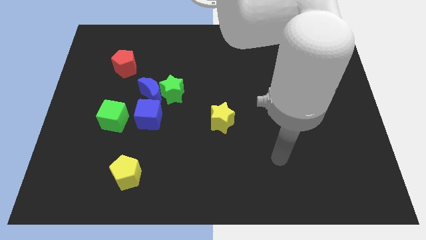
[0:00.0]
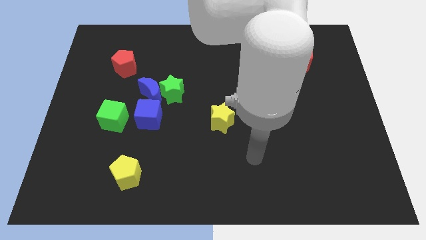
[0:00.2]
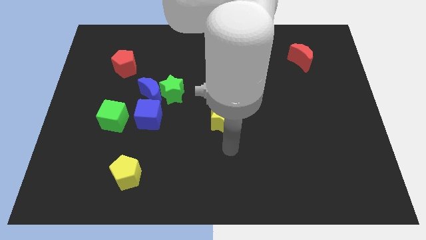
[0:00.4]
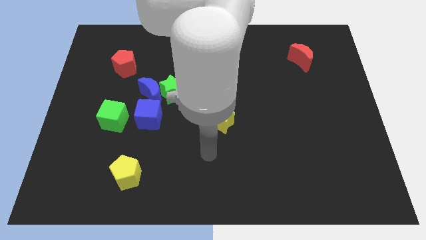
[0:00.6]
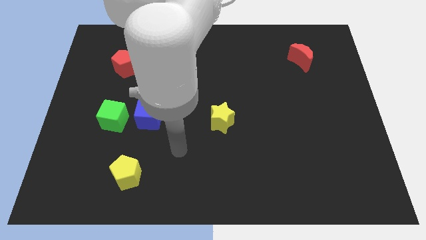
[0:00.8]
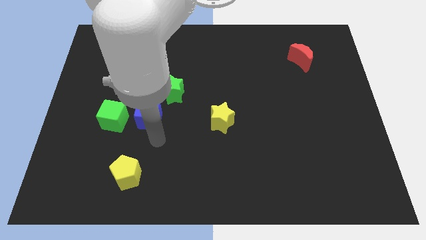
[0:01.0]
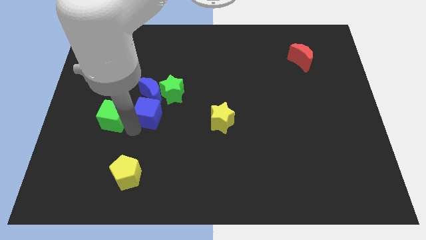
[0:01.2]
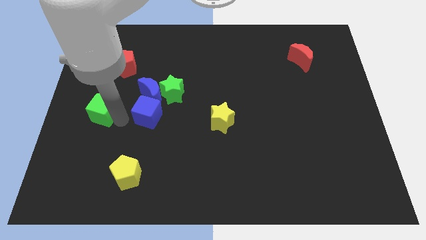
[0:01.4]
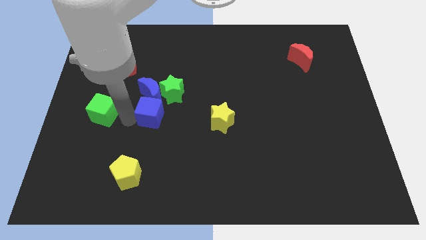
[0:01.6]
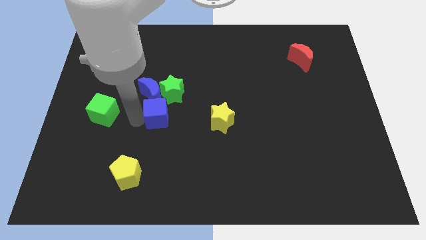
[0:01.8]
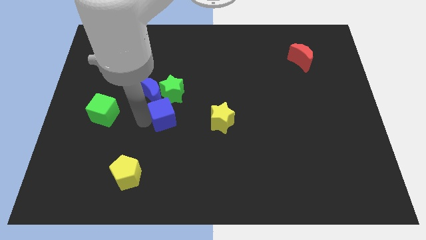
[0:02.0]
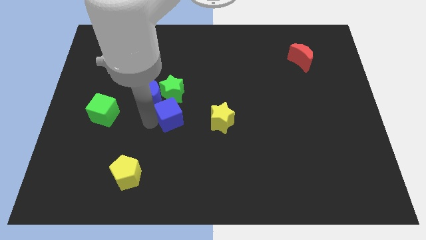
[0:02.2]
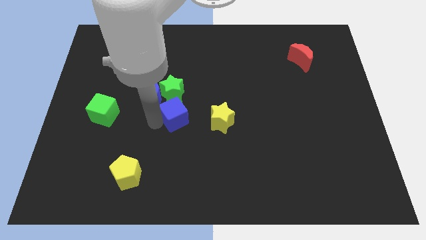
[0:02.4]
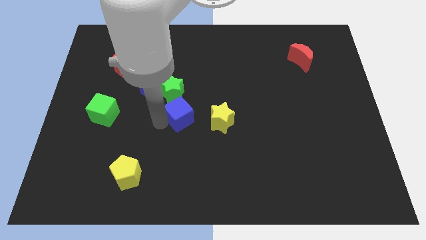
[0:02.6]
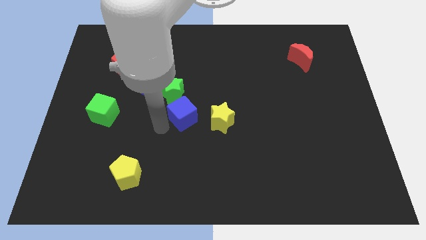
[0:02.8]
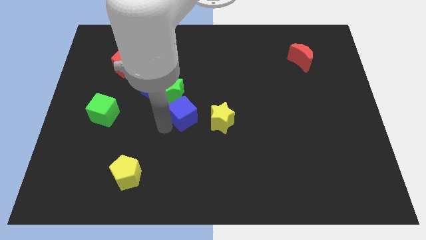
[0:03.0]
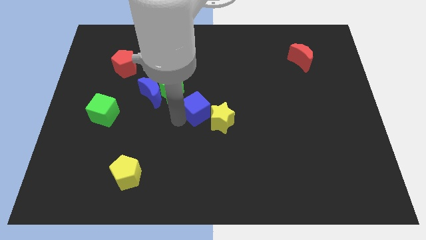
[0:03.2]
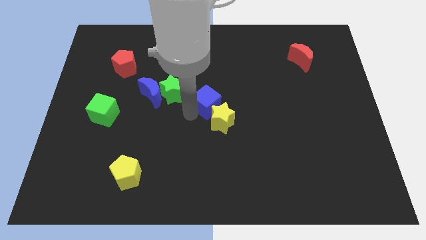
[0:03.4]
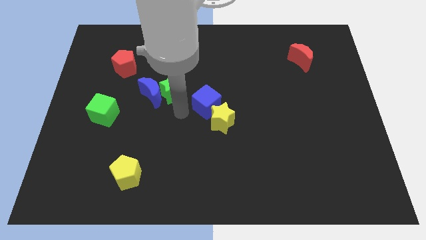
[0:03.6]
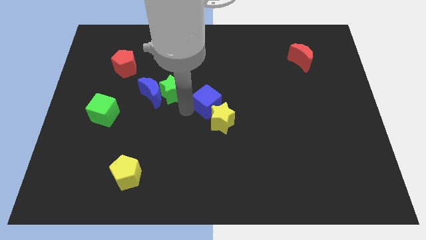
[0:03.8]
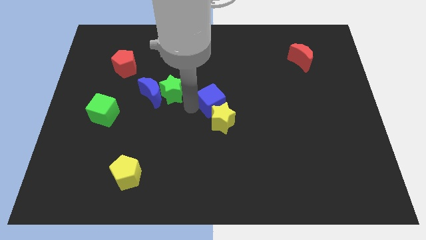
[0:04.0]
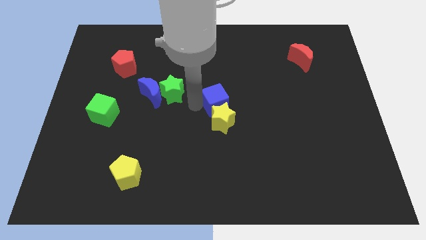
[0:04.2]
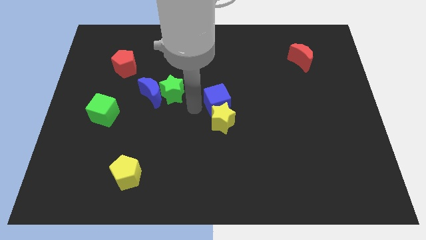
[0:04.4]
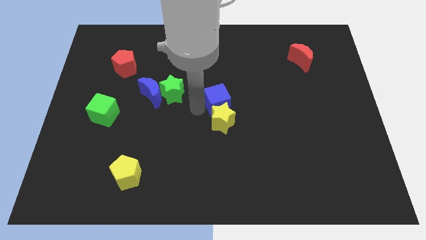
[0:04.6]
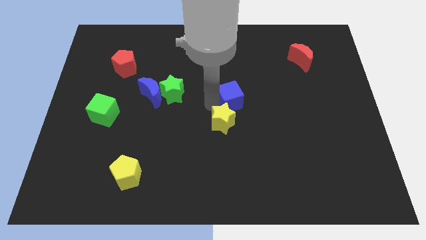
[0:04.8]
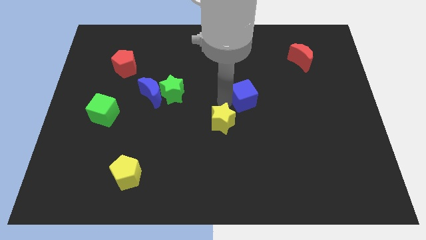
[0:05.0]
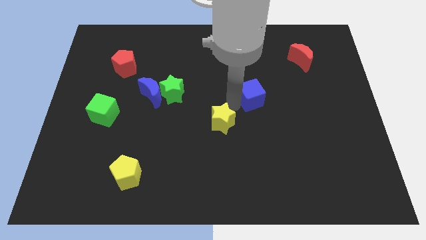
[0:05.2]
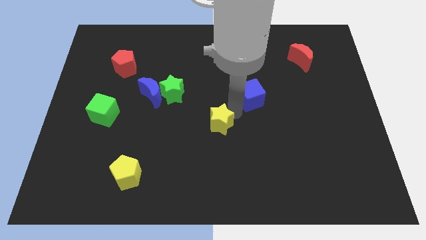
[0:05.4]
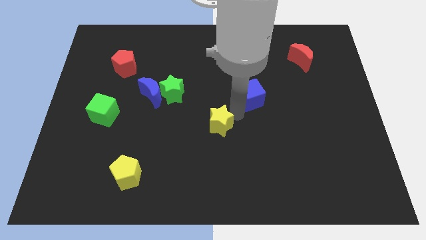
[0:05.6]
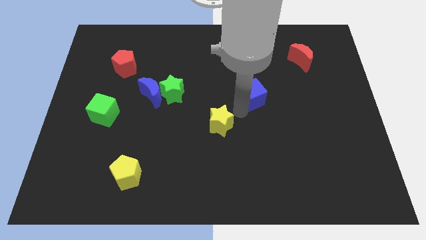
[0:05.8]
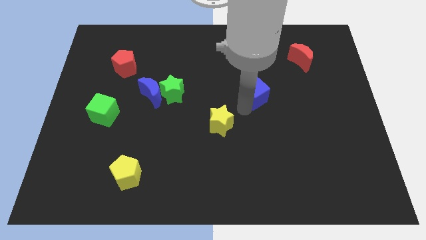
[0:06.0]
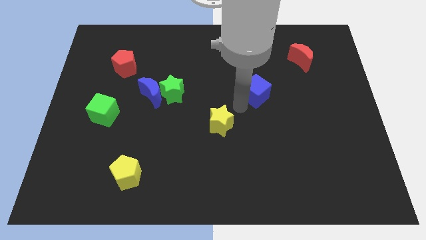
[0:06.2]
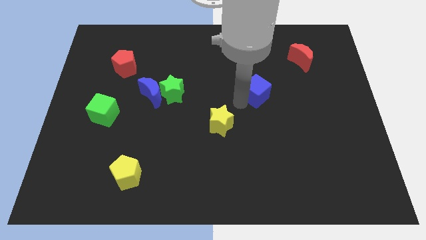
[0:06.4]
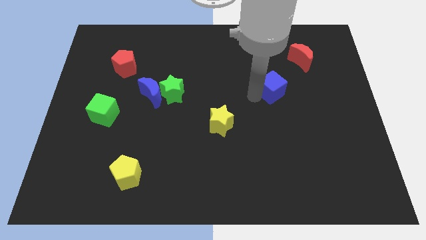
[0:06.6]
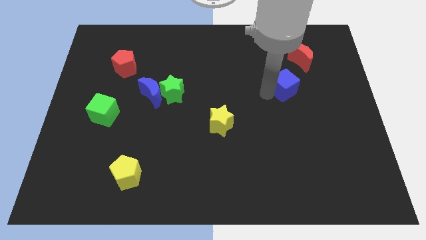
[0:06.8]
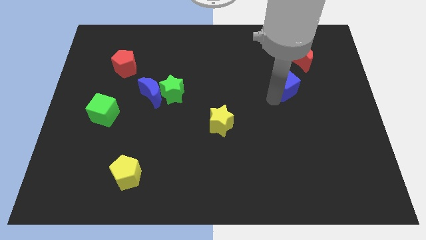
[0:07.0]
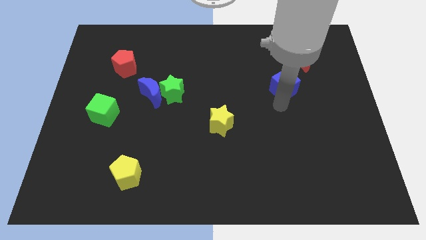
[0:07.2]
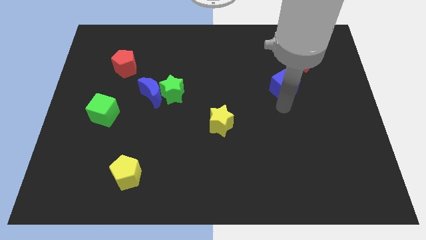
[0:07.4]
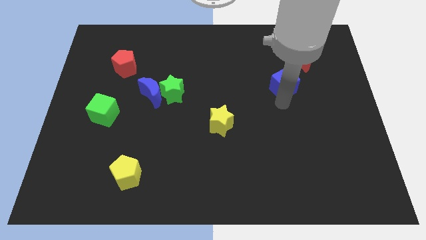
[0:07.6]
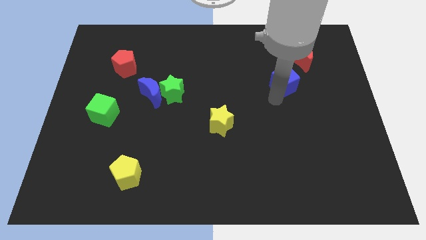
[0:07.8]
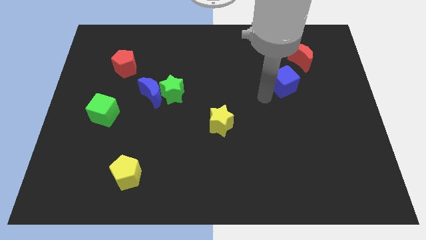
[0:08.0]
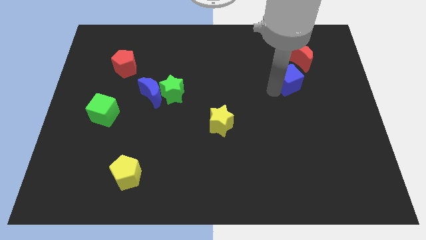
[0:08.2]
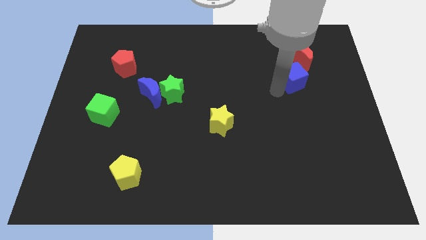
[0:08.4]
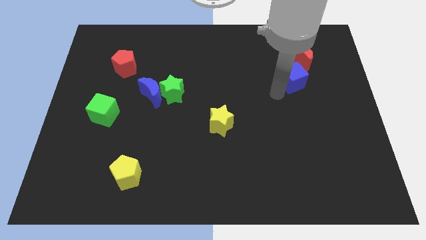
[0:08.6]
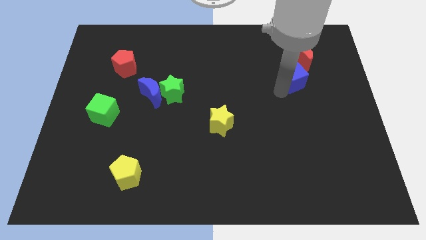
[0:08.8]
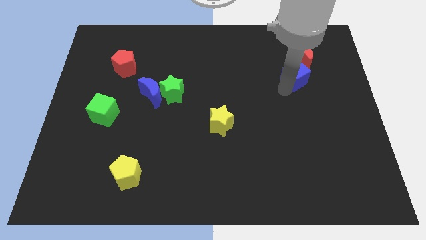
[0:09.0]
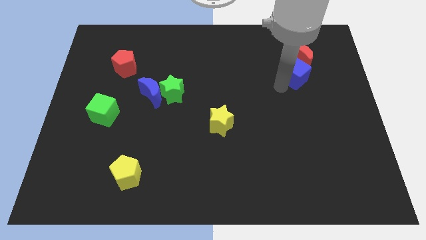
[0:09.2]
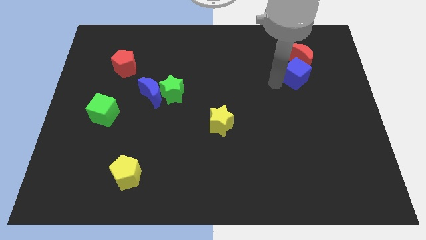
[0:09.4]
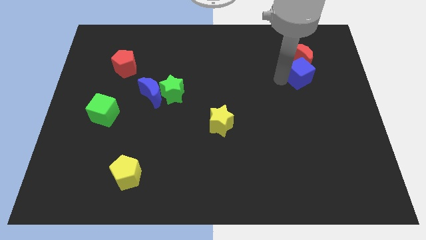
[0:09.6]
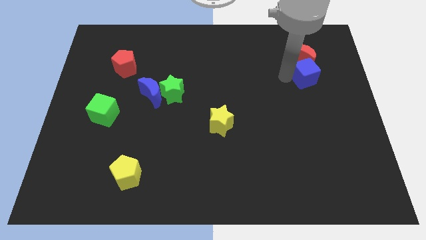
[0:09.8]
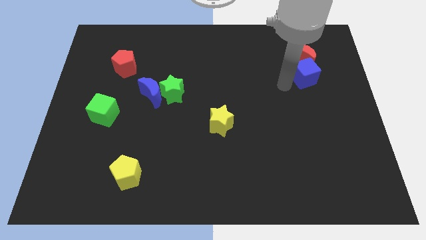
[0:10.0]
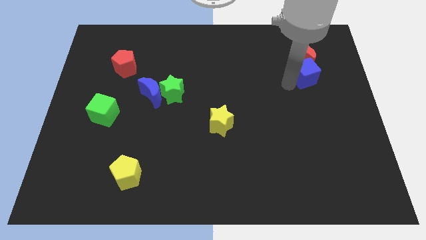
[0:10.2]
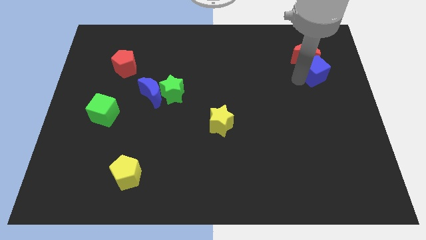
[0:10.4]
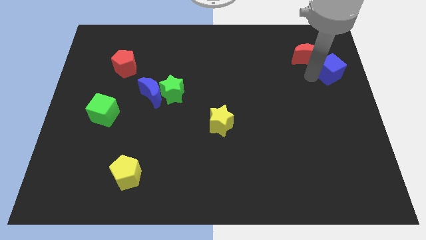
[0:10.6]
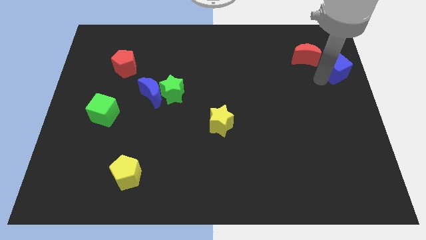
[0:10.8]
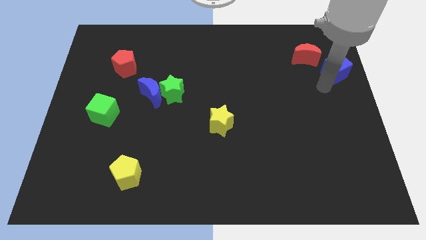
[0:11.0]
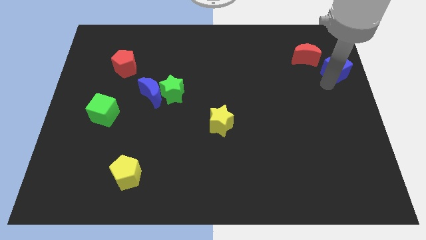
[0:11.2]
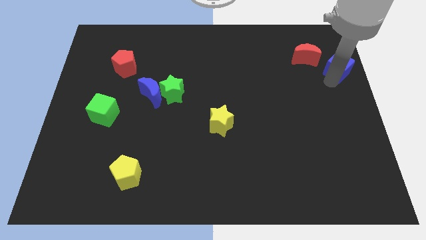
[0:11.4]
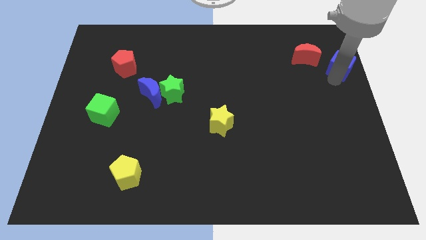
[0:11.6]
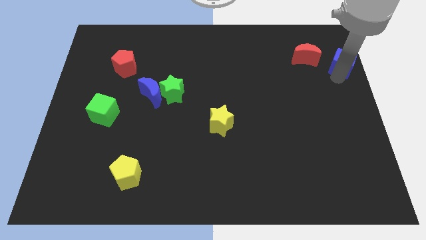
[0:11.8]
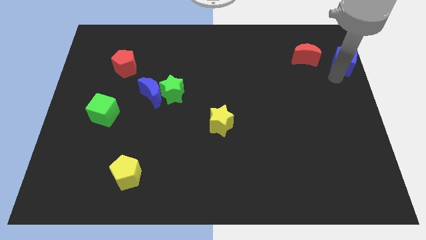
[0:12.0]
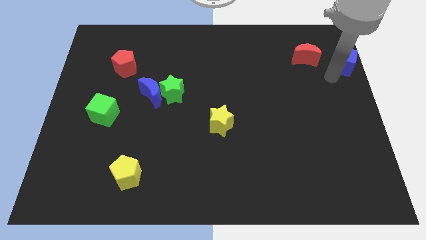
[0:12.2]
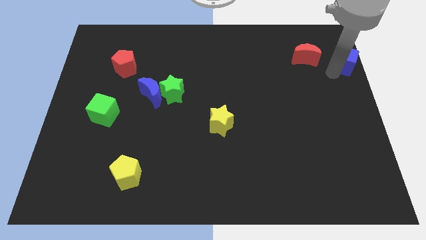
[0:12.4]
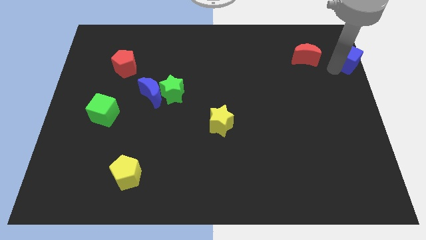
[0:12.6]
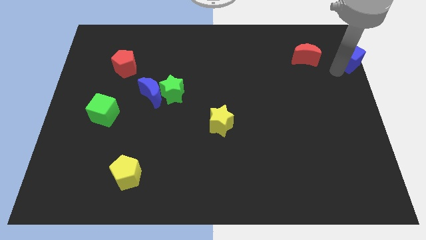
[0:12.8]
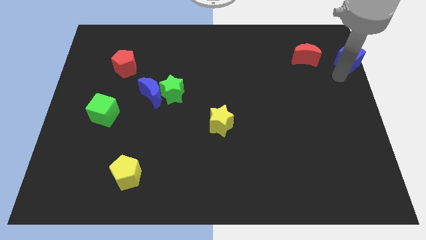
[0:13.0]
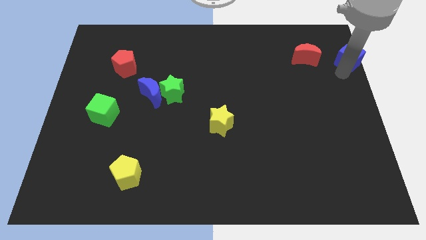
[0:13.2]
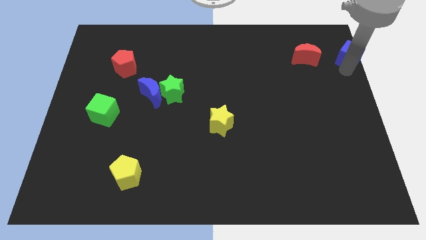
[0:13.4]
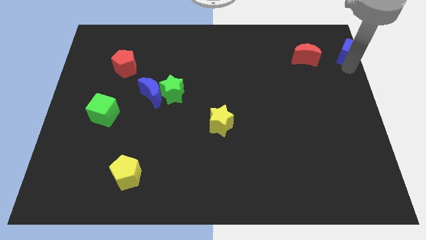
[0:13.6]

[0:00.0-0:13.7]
push the blue cube to the top right
